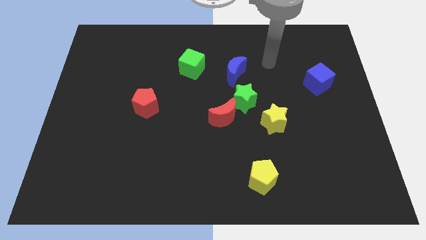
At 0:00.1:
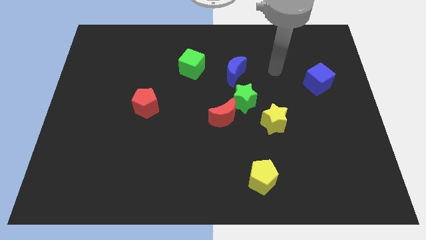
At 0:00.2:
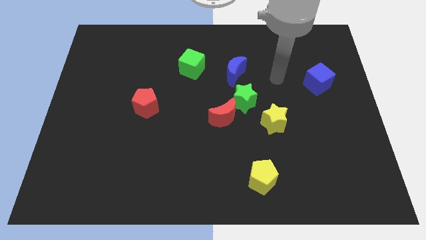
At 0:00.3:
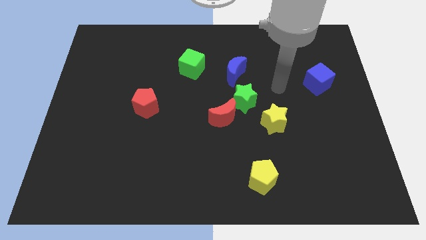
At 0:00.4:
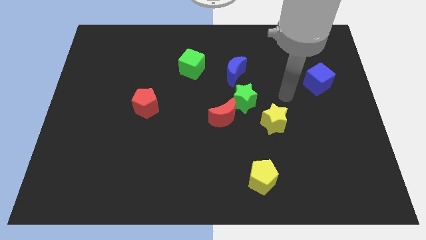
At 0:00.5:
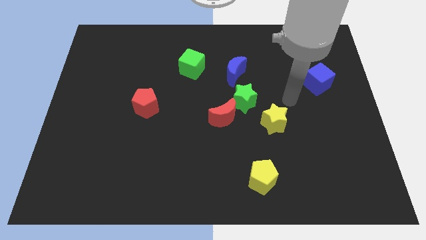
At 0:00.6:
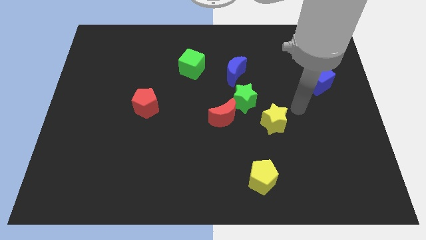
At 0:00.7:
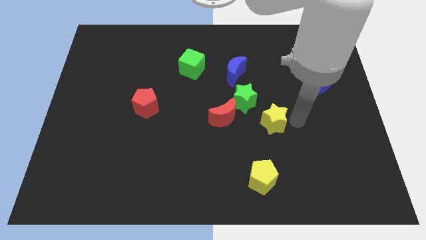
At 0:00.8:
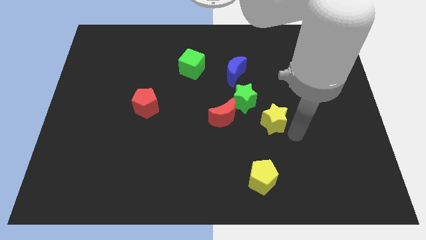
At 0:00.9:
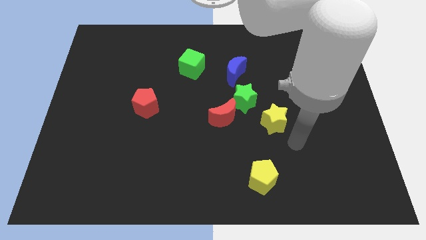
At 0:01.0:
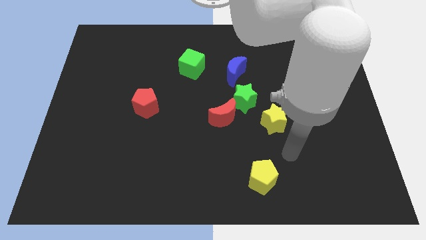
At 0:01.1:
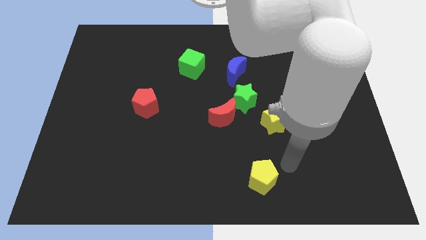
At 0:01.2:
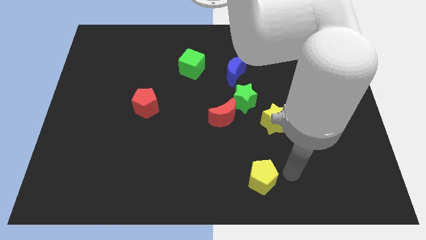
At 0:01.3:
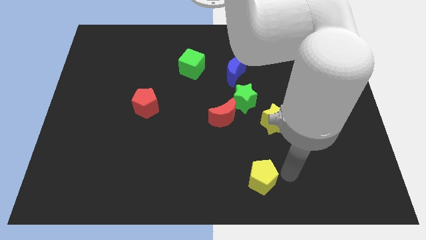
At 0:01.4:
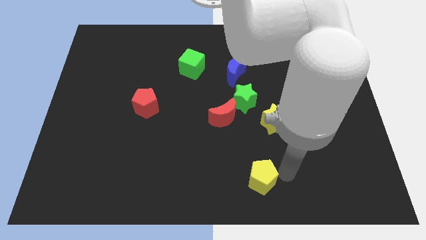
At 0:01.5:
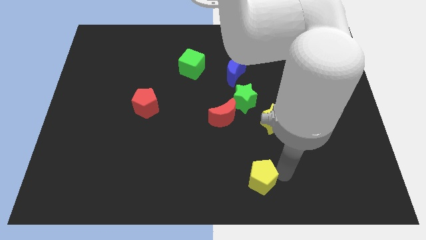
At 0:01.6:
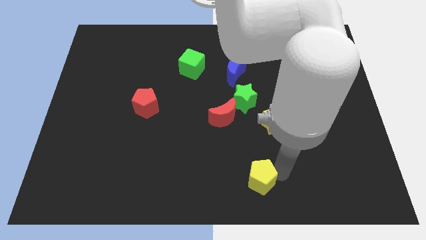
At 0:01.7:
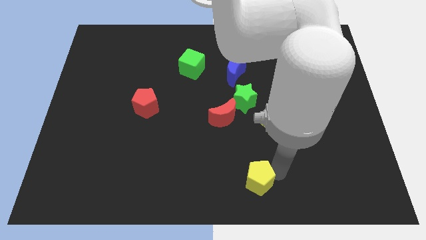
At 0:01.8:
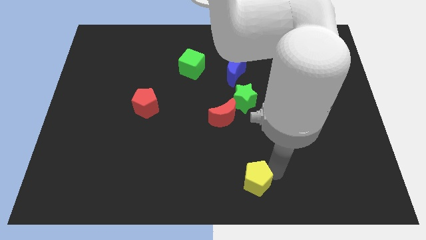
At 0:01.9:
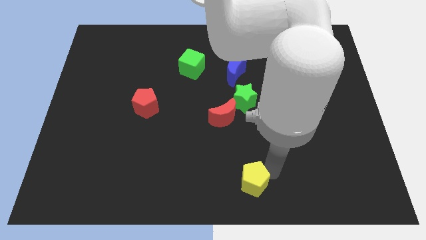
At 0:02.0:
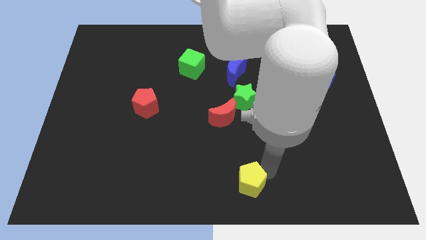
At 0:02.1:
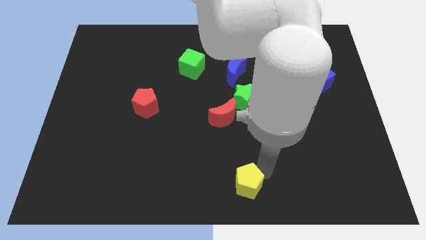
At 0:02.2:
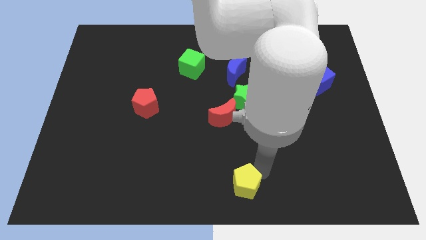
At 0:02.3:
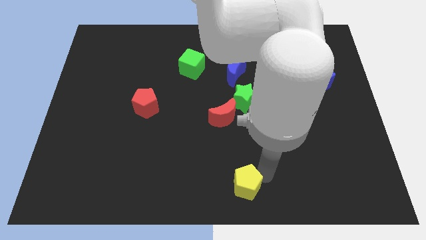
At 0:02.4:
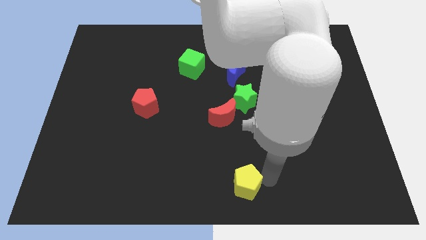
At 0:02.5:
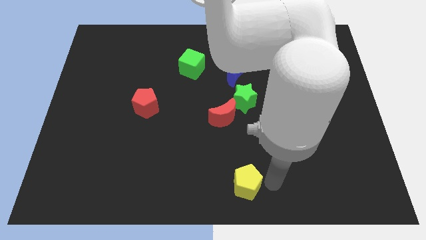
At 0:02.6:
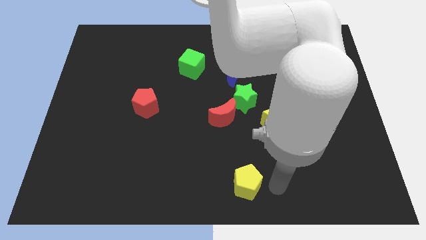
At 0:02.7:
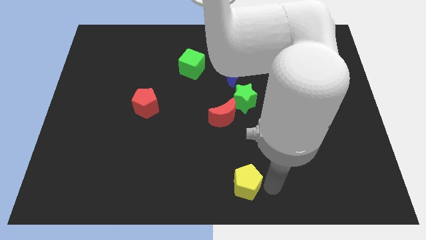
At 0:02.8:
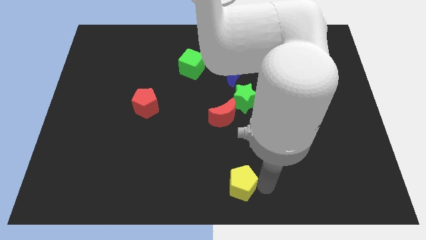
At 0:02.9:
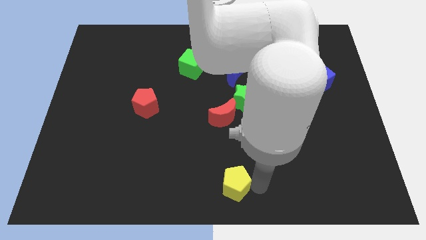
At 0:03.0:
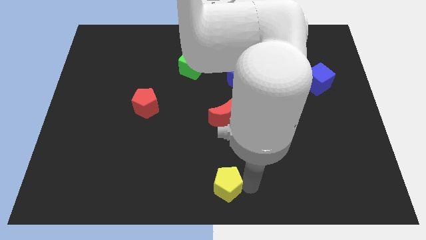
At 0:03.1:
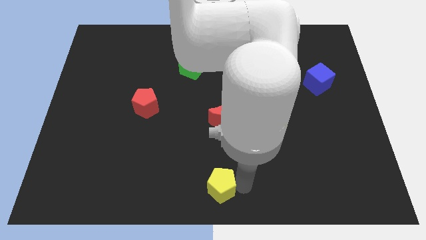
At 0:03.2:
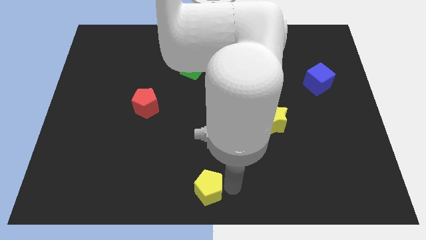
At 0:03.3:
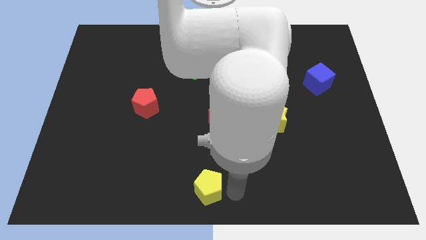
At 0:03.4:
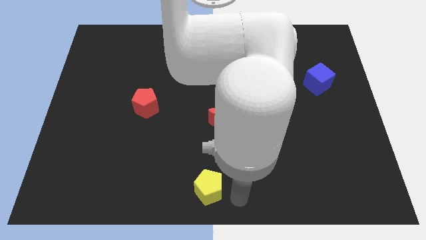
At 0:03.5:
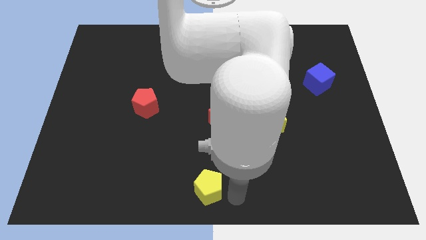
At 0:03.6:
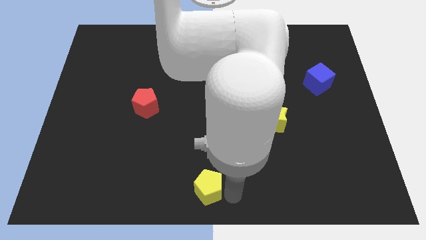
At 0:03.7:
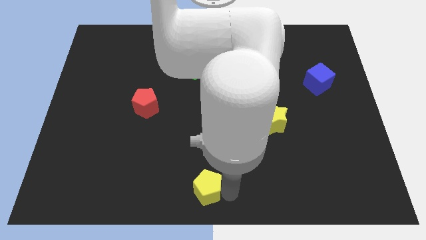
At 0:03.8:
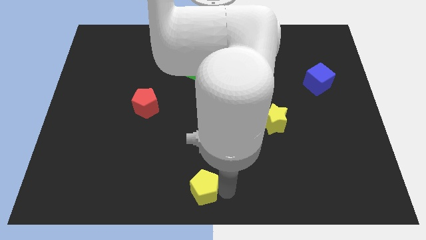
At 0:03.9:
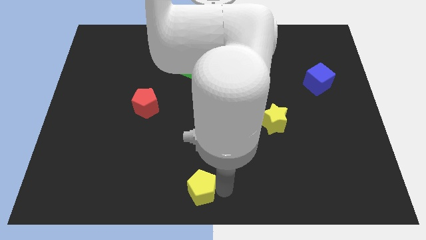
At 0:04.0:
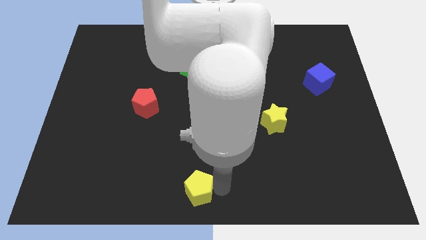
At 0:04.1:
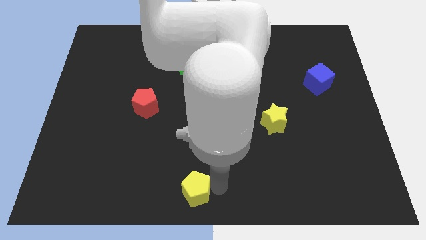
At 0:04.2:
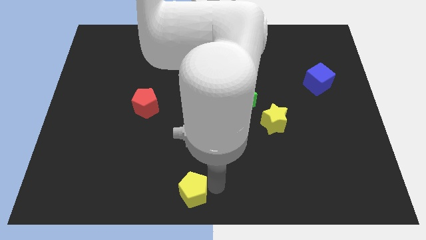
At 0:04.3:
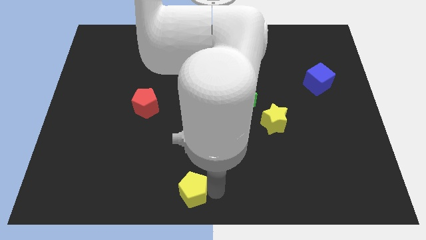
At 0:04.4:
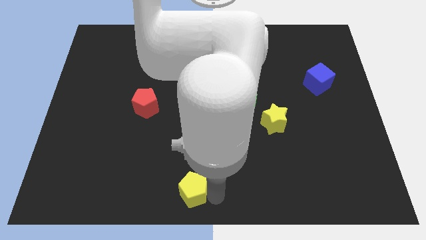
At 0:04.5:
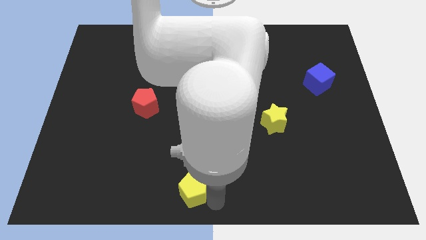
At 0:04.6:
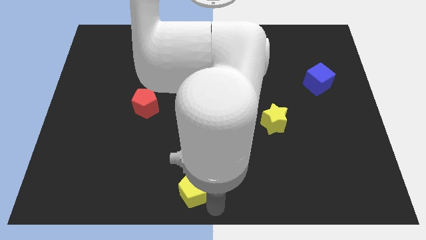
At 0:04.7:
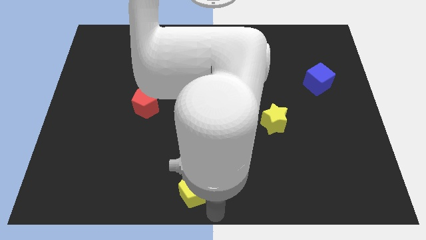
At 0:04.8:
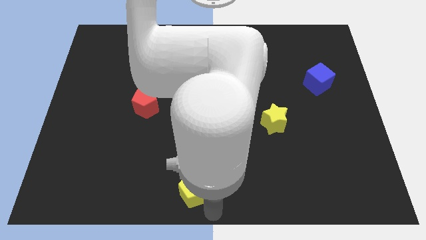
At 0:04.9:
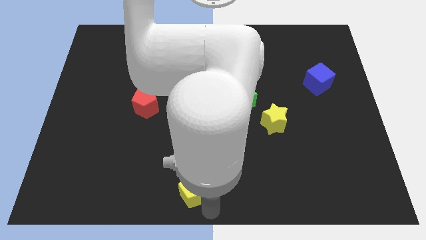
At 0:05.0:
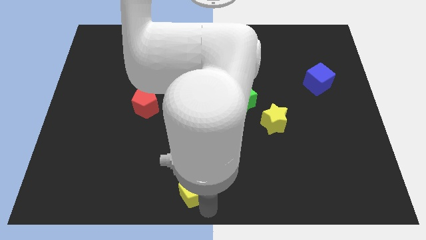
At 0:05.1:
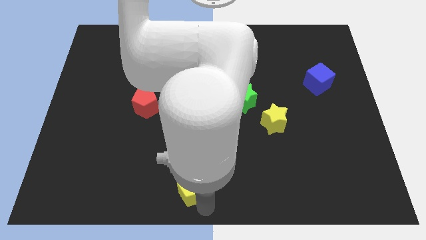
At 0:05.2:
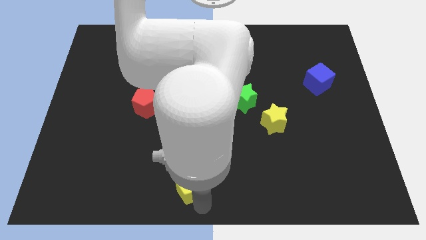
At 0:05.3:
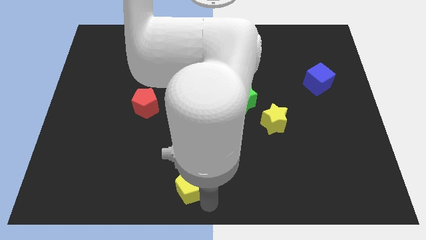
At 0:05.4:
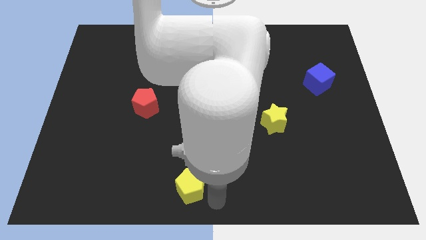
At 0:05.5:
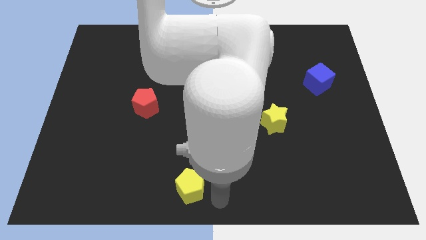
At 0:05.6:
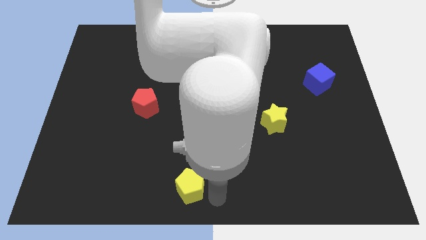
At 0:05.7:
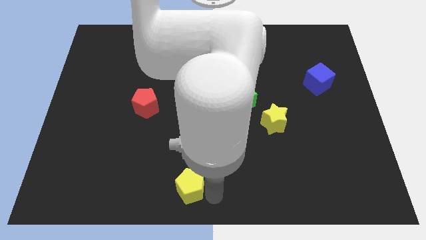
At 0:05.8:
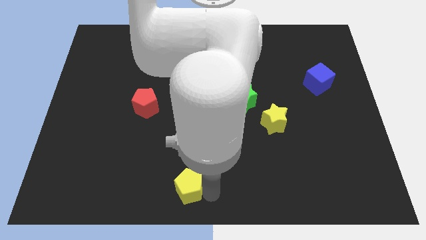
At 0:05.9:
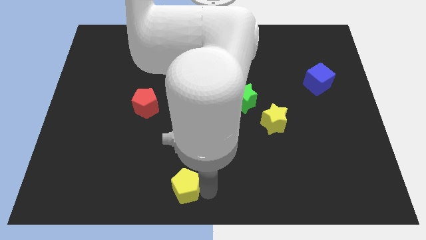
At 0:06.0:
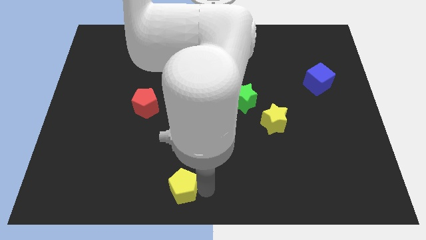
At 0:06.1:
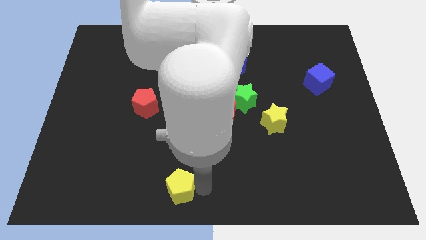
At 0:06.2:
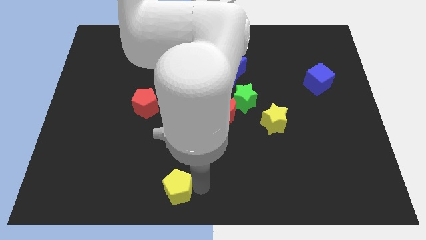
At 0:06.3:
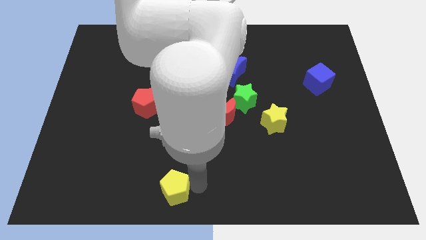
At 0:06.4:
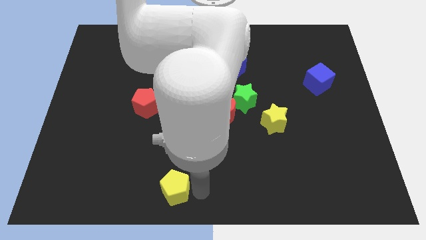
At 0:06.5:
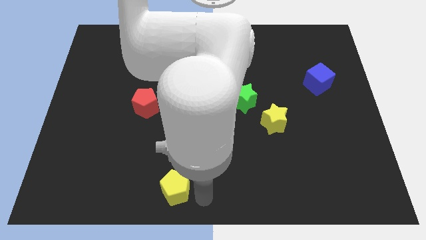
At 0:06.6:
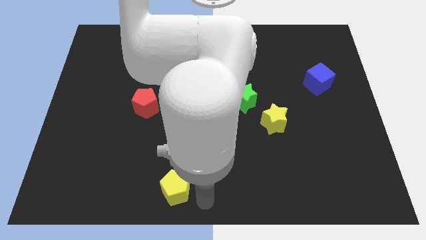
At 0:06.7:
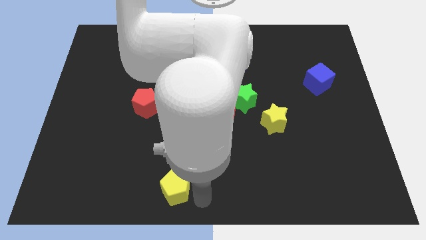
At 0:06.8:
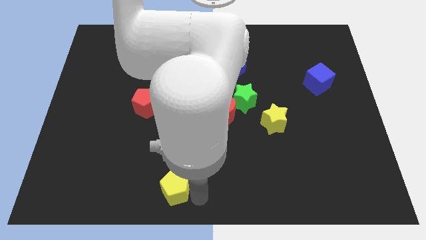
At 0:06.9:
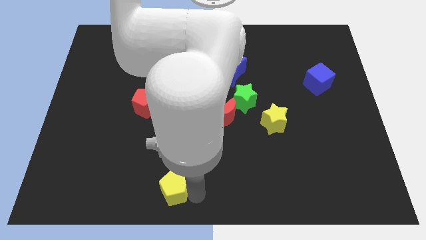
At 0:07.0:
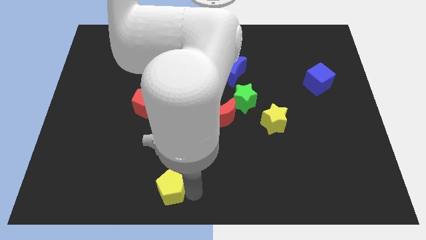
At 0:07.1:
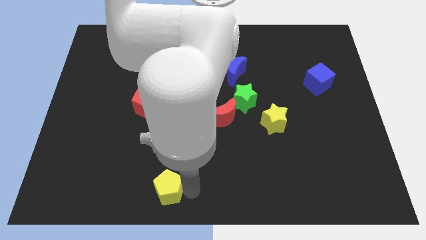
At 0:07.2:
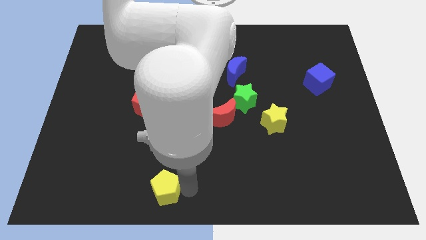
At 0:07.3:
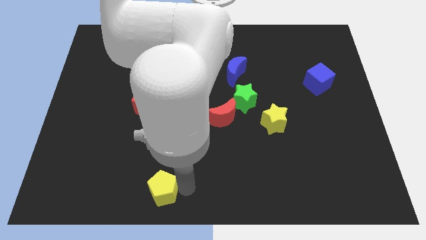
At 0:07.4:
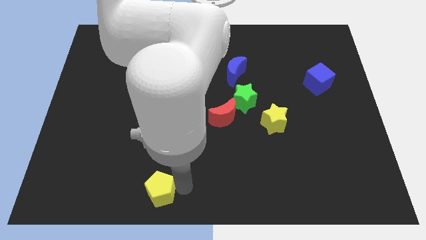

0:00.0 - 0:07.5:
move the yellow pentagon to the left

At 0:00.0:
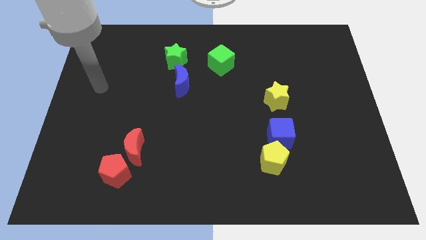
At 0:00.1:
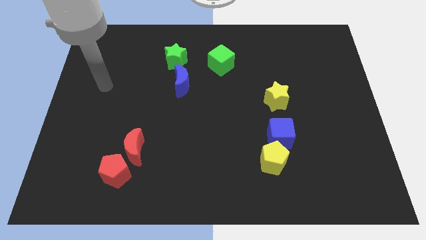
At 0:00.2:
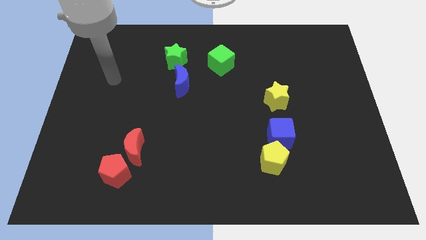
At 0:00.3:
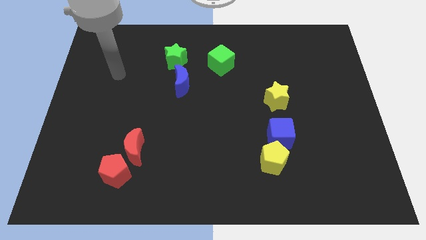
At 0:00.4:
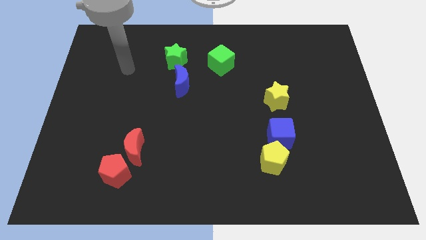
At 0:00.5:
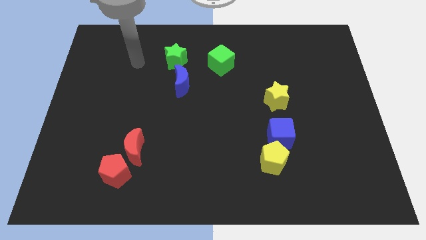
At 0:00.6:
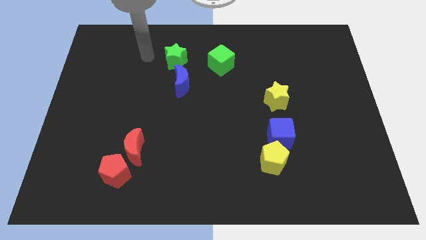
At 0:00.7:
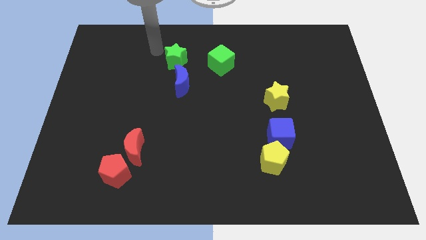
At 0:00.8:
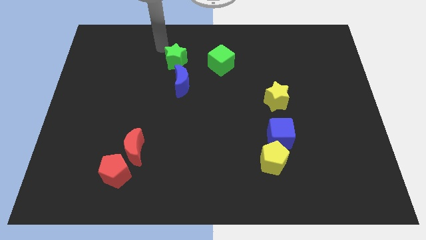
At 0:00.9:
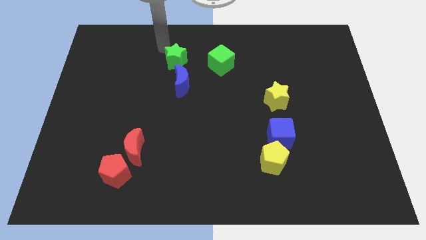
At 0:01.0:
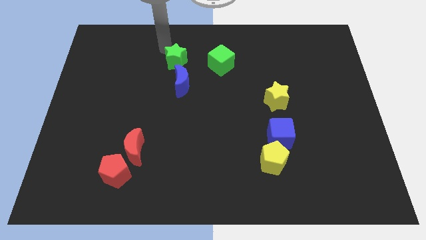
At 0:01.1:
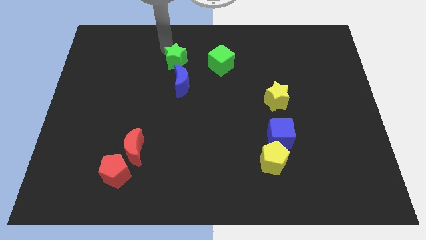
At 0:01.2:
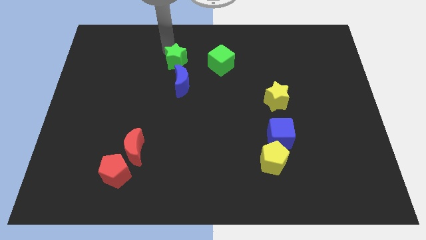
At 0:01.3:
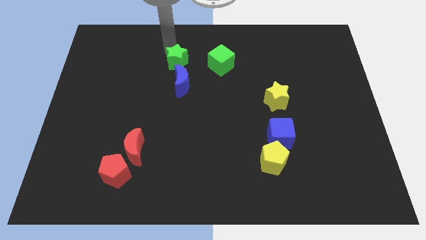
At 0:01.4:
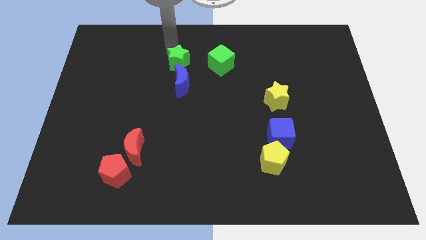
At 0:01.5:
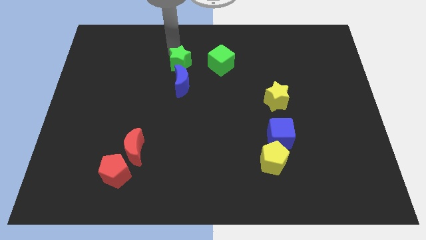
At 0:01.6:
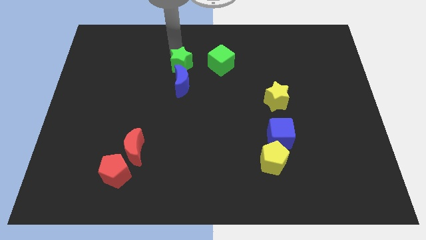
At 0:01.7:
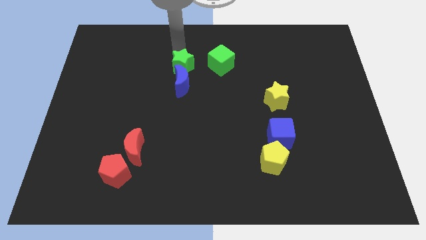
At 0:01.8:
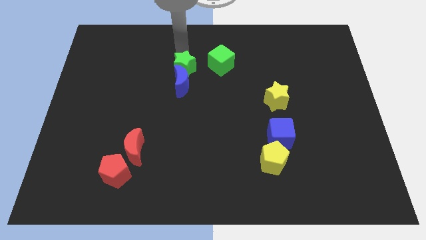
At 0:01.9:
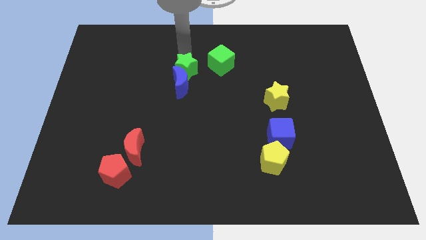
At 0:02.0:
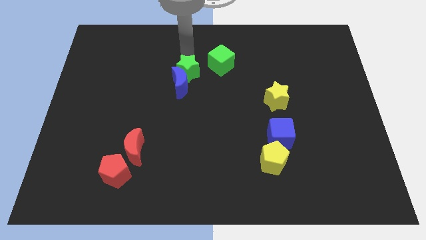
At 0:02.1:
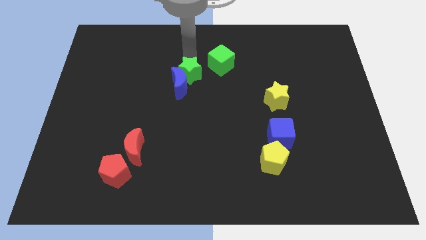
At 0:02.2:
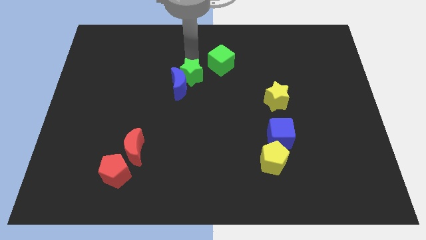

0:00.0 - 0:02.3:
move the green star down and to the right a little bit
